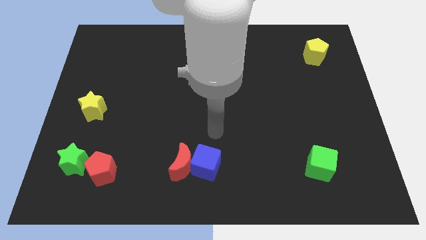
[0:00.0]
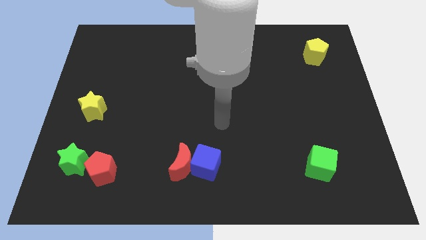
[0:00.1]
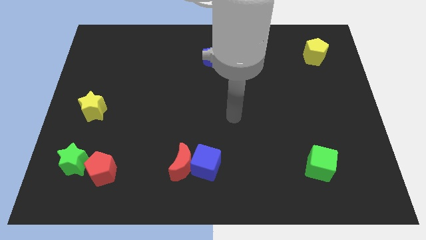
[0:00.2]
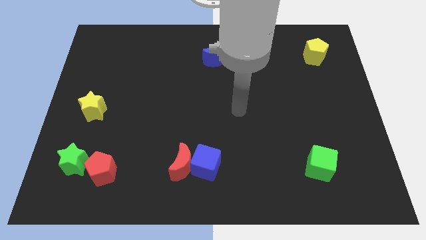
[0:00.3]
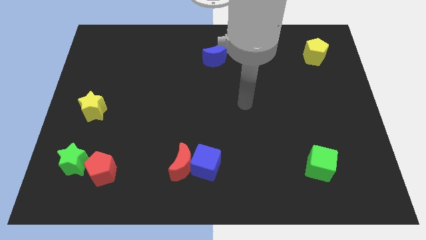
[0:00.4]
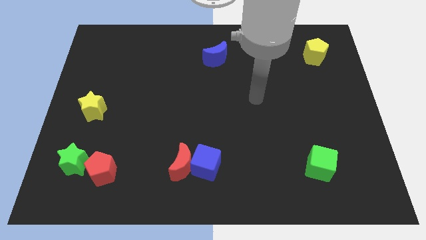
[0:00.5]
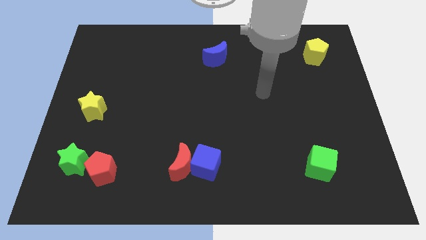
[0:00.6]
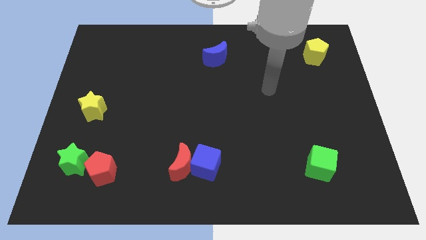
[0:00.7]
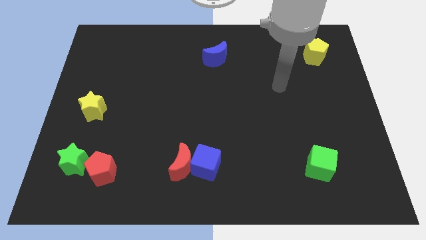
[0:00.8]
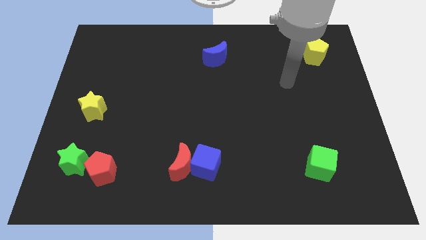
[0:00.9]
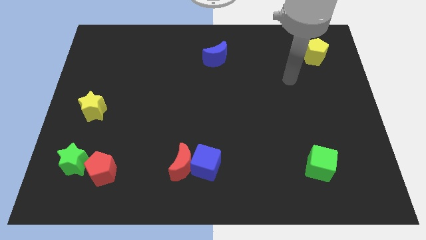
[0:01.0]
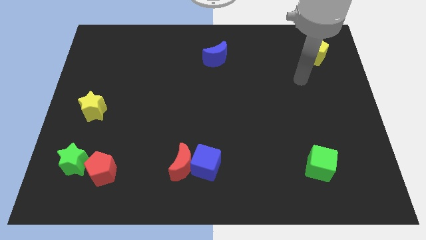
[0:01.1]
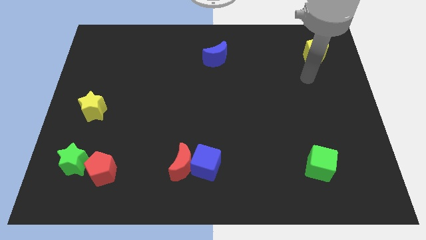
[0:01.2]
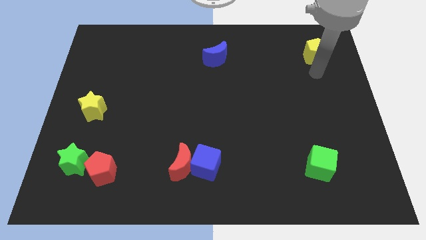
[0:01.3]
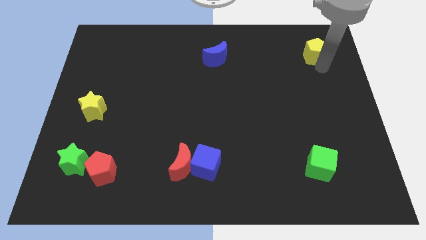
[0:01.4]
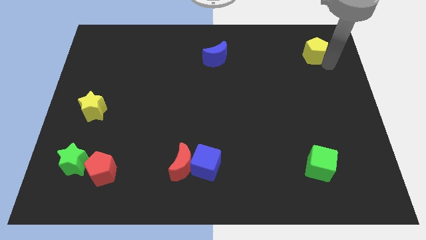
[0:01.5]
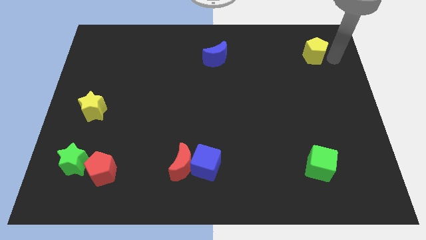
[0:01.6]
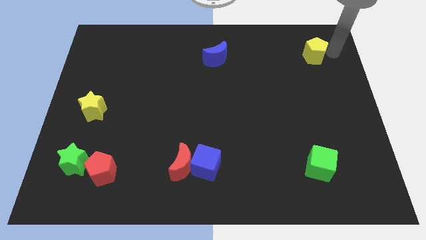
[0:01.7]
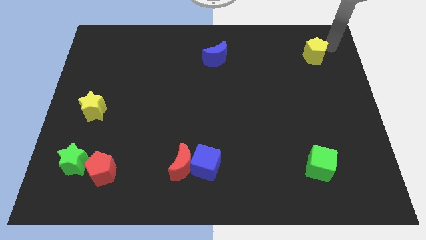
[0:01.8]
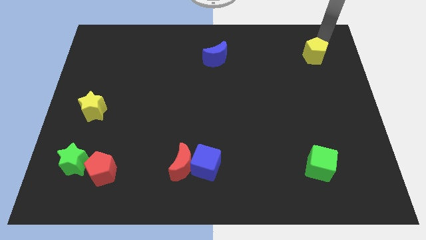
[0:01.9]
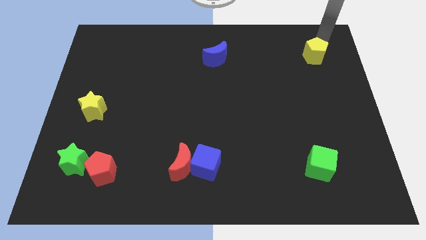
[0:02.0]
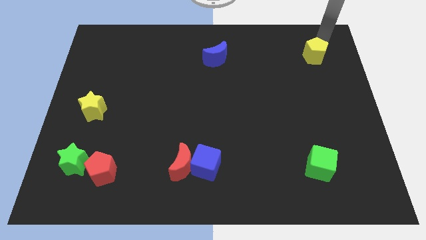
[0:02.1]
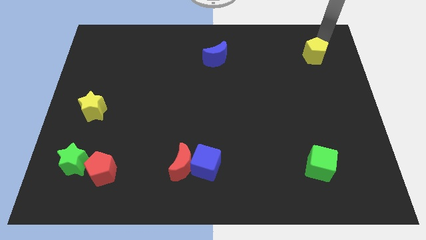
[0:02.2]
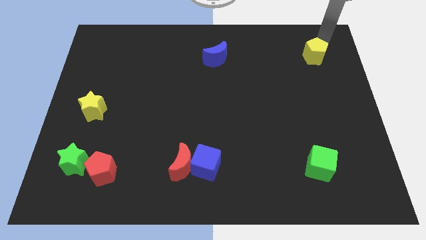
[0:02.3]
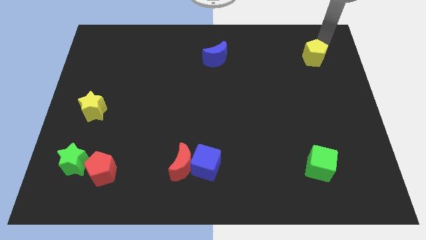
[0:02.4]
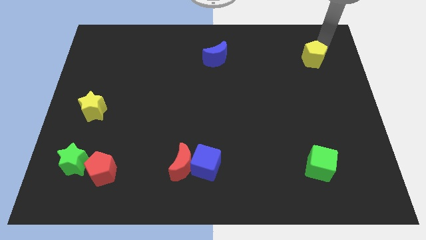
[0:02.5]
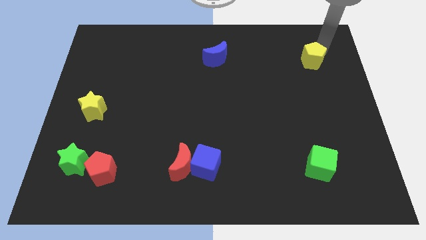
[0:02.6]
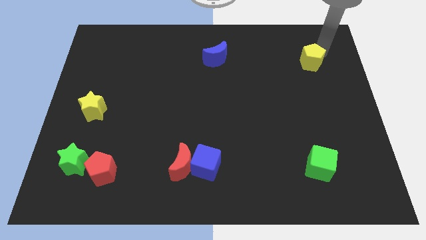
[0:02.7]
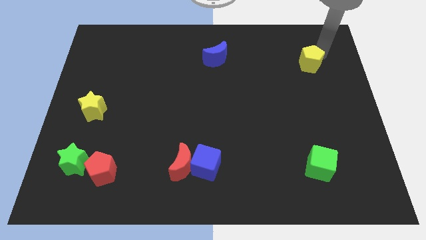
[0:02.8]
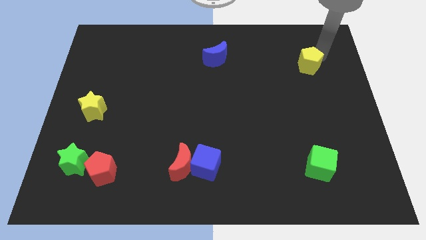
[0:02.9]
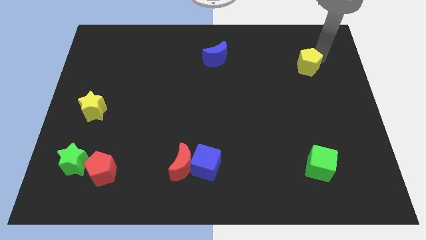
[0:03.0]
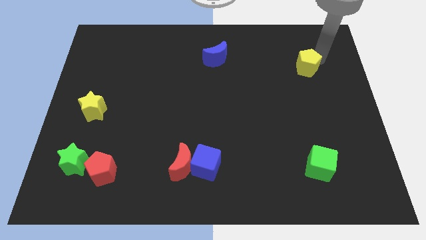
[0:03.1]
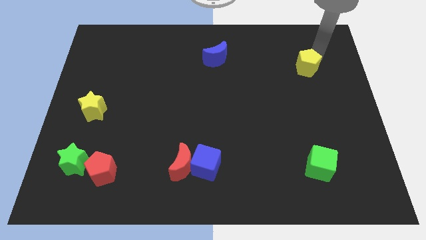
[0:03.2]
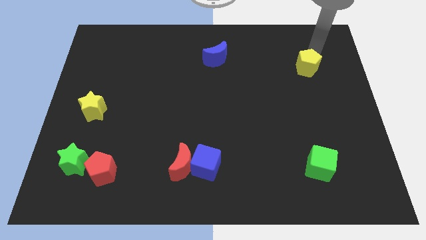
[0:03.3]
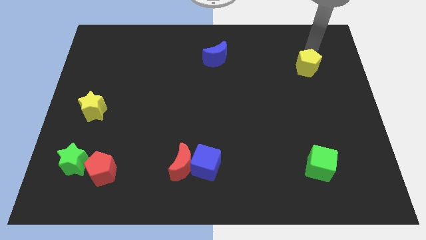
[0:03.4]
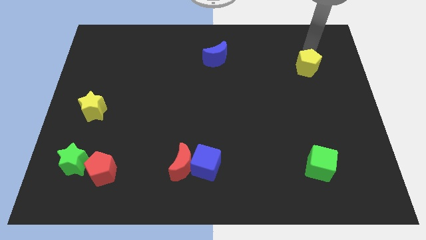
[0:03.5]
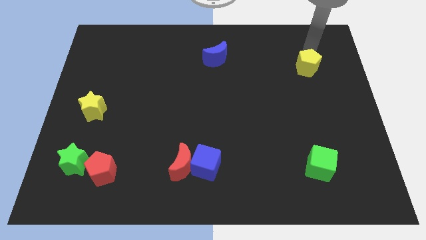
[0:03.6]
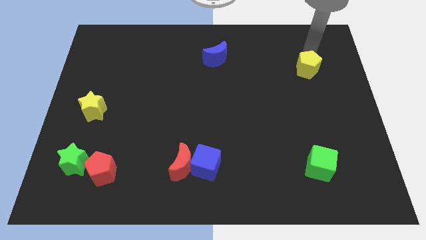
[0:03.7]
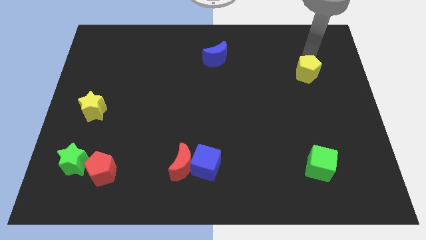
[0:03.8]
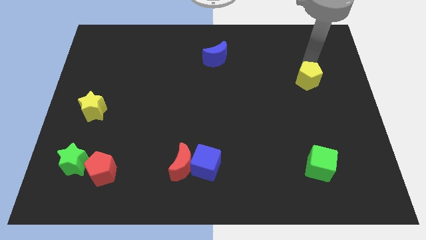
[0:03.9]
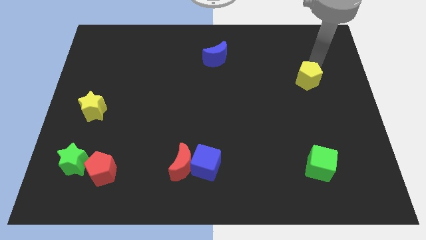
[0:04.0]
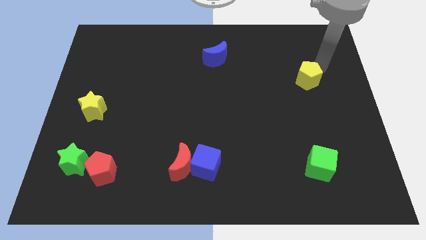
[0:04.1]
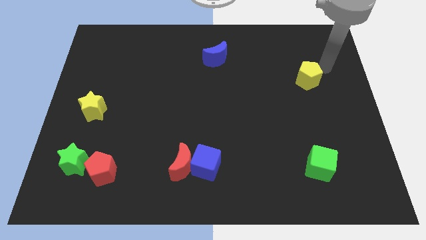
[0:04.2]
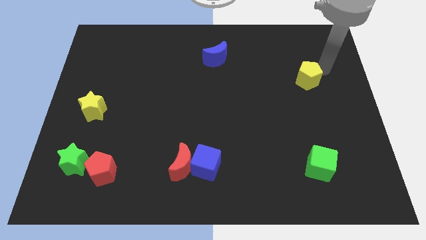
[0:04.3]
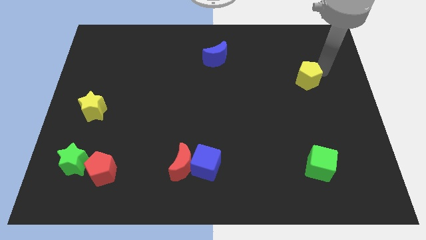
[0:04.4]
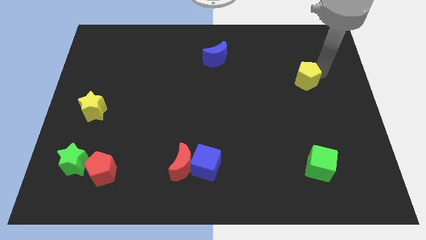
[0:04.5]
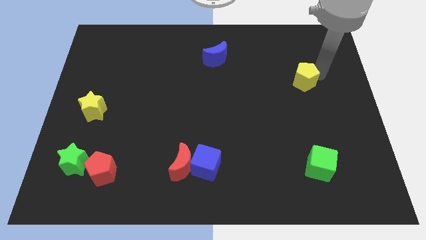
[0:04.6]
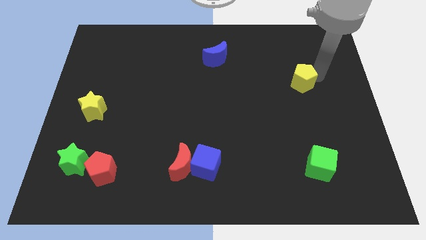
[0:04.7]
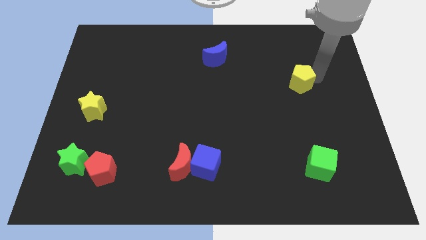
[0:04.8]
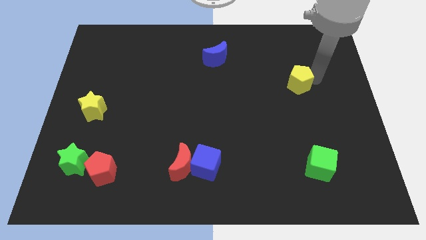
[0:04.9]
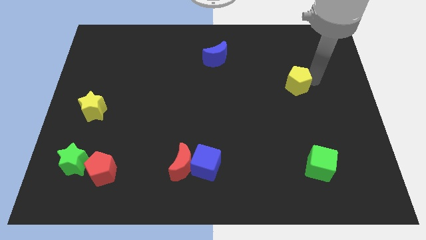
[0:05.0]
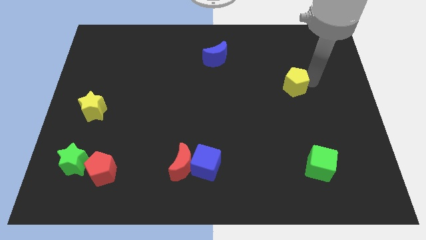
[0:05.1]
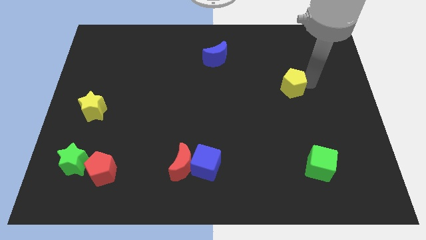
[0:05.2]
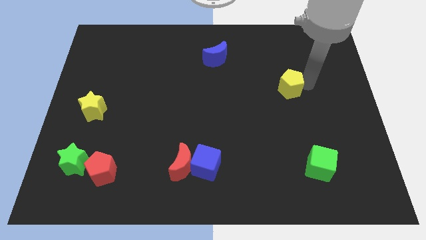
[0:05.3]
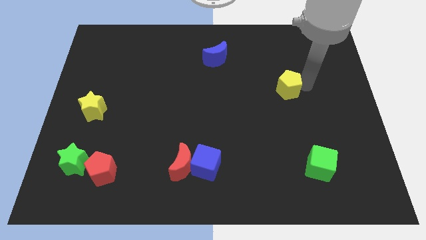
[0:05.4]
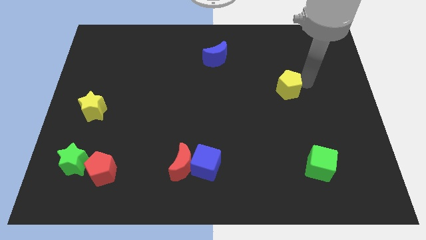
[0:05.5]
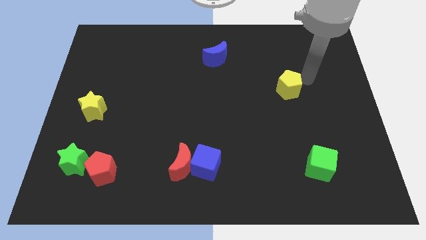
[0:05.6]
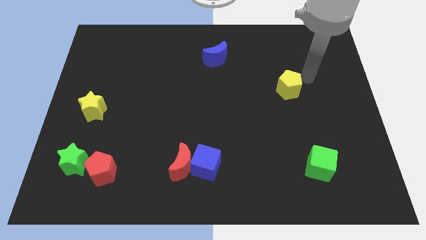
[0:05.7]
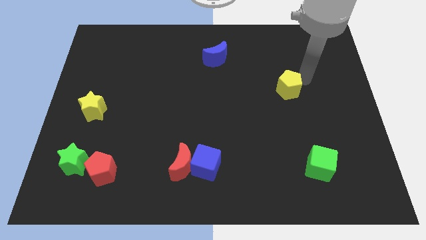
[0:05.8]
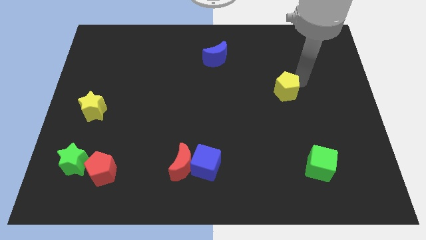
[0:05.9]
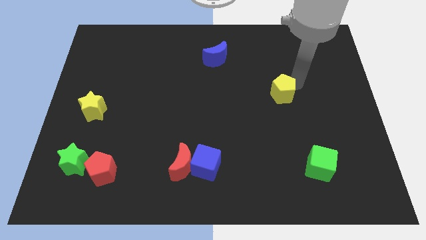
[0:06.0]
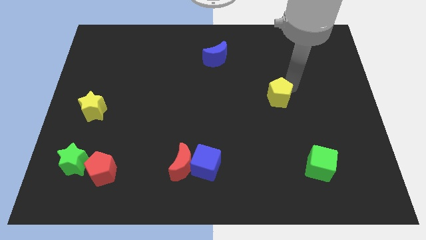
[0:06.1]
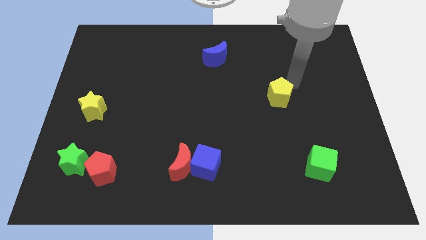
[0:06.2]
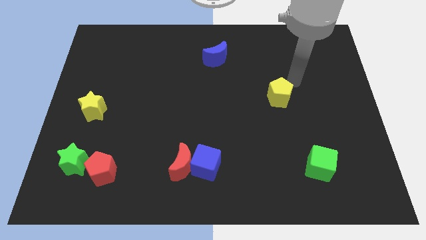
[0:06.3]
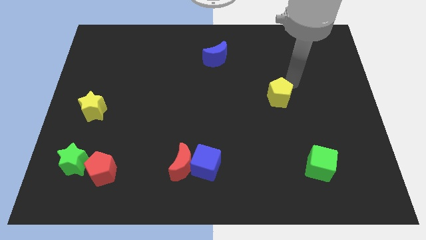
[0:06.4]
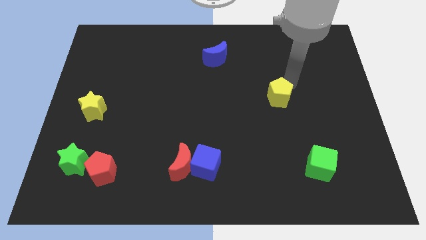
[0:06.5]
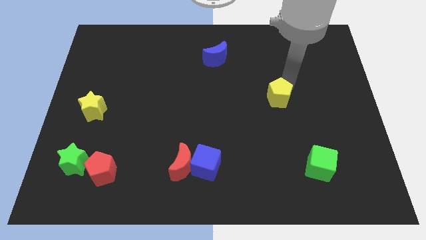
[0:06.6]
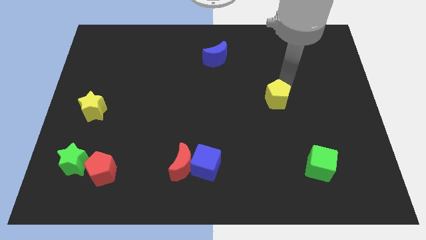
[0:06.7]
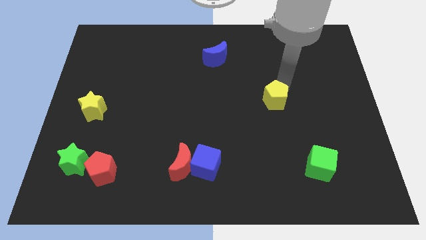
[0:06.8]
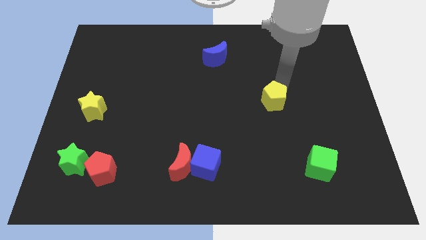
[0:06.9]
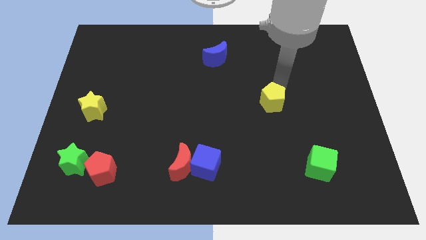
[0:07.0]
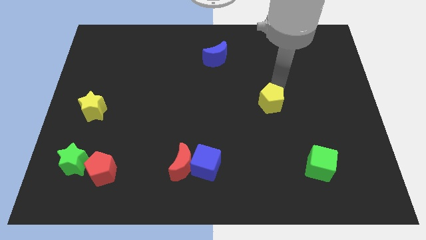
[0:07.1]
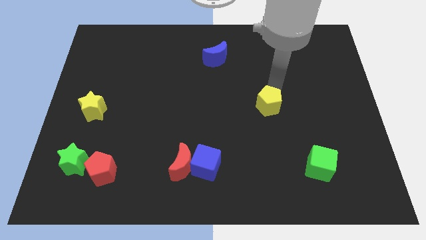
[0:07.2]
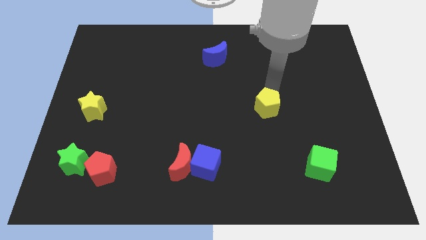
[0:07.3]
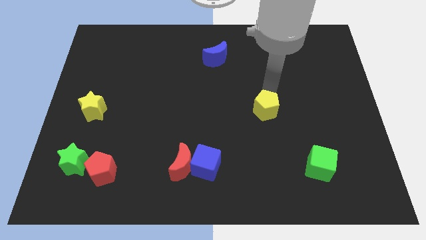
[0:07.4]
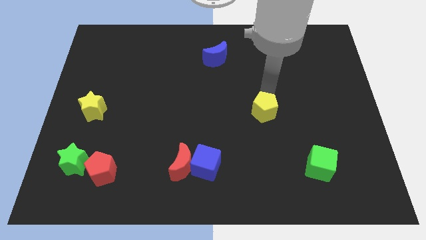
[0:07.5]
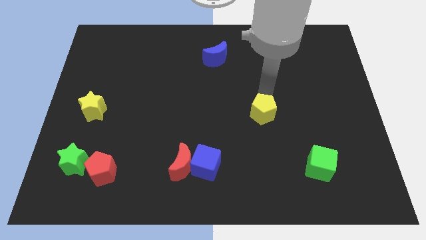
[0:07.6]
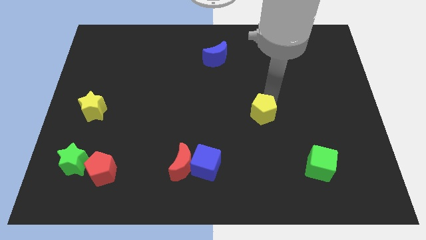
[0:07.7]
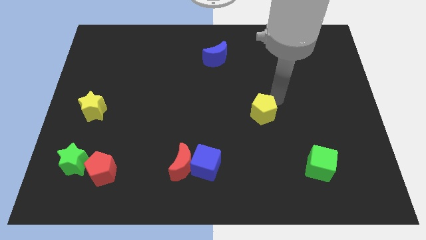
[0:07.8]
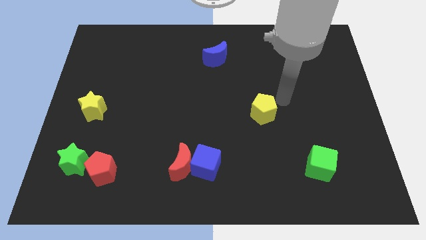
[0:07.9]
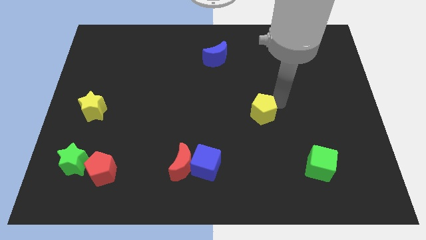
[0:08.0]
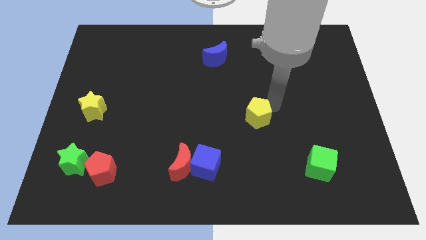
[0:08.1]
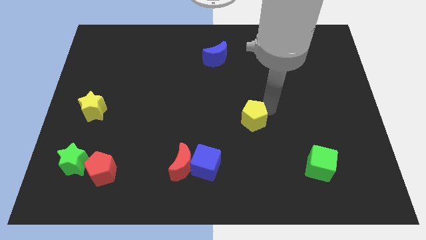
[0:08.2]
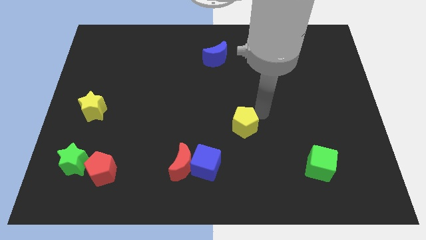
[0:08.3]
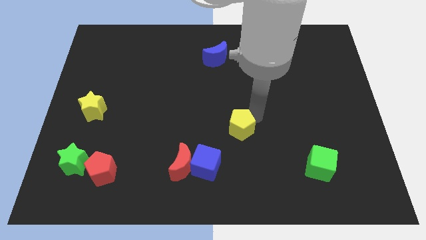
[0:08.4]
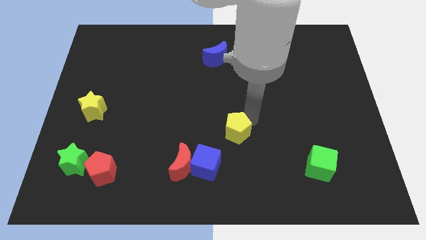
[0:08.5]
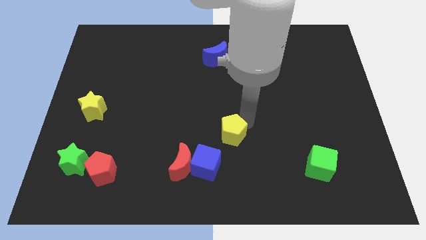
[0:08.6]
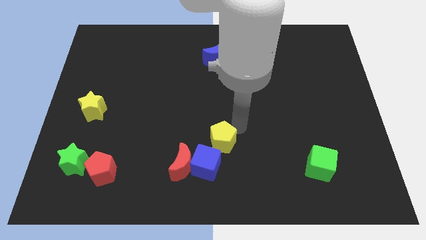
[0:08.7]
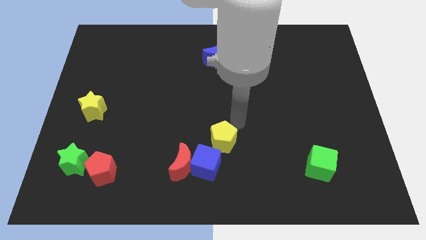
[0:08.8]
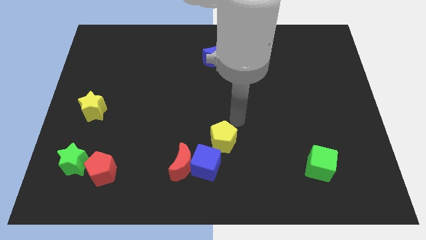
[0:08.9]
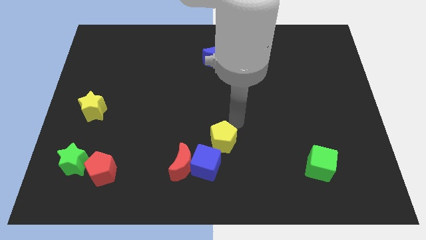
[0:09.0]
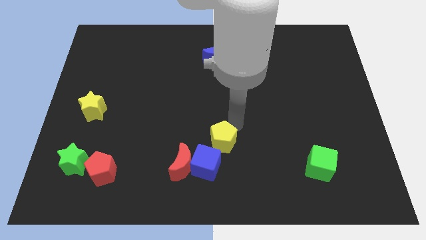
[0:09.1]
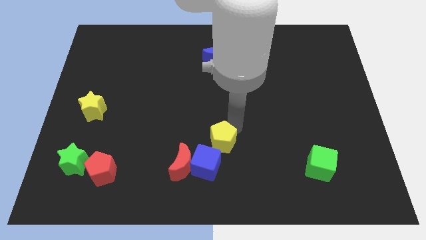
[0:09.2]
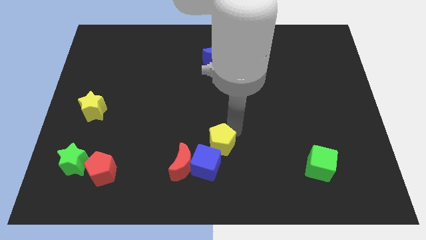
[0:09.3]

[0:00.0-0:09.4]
move the yellow pentagon close to the blue cube
